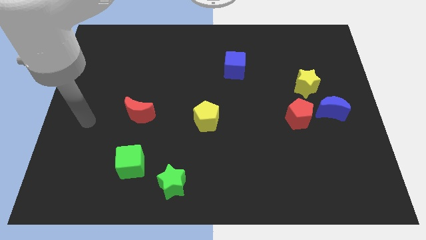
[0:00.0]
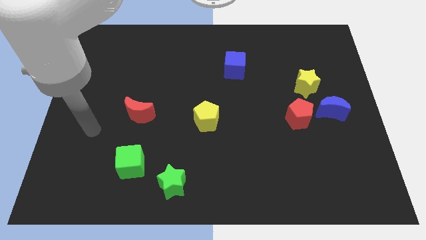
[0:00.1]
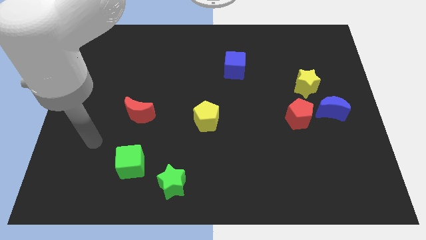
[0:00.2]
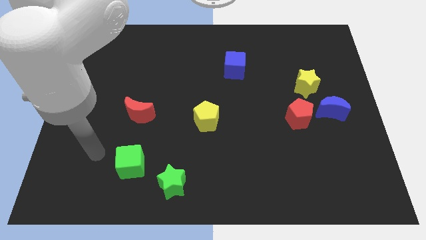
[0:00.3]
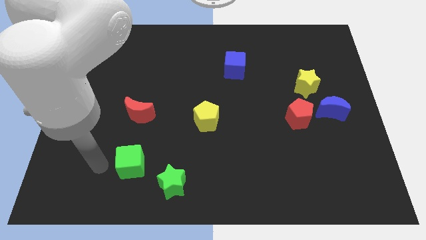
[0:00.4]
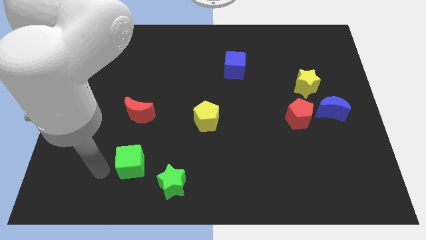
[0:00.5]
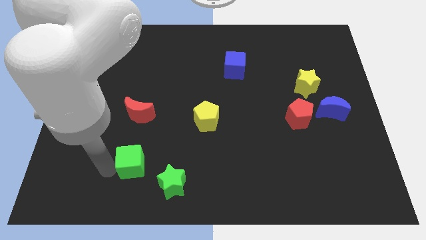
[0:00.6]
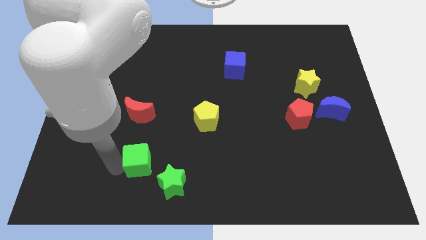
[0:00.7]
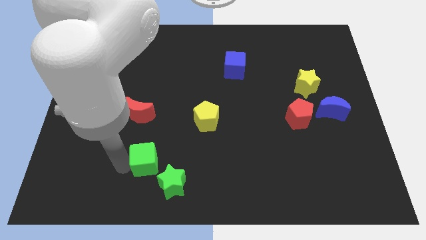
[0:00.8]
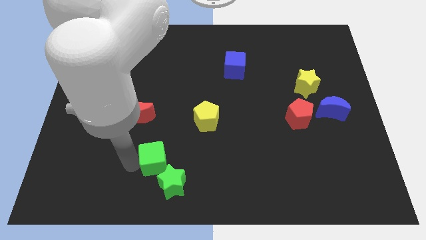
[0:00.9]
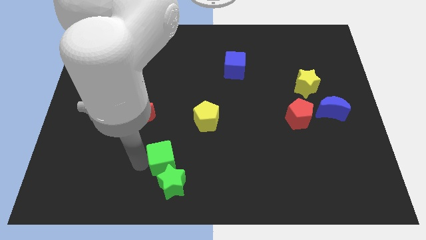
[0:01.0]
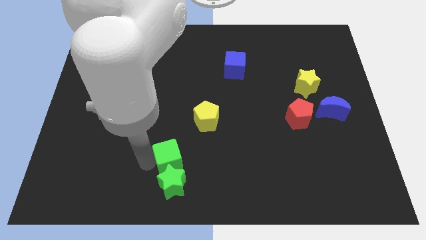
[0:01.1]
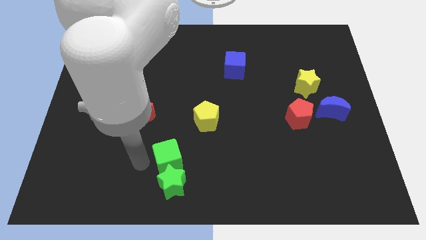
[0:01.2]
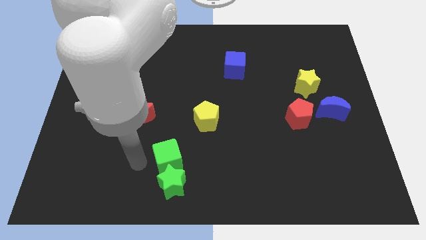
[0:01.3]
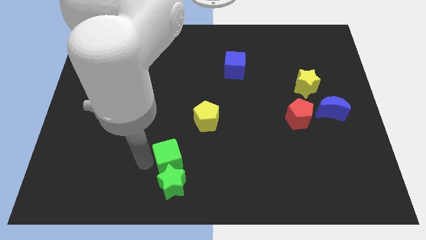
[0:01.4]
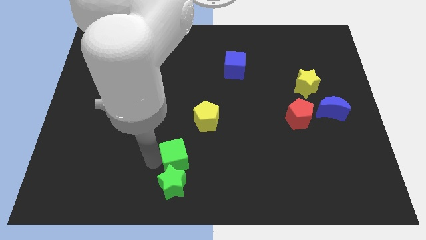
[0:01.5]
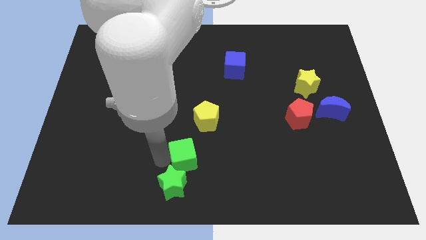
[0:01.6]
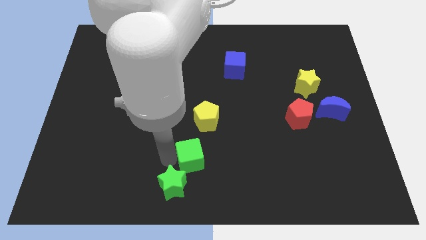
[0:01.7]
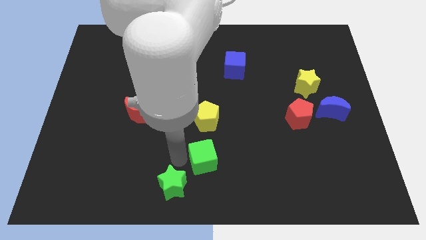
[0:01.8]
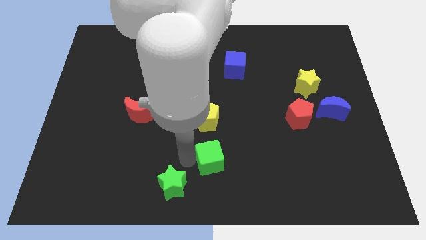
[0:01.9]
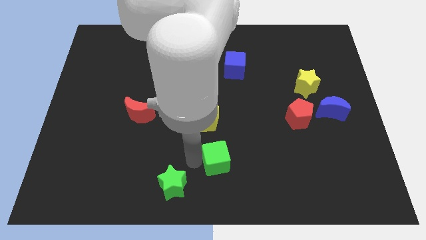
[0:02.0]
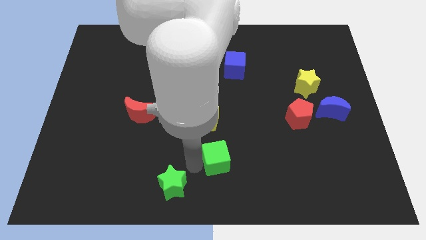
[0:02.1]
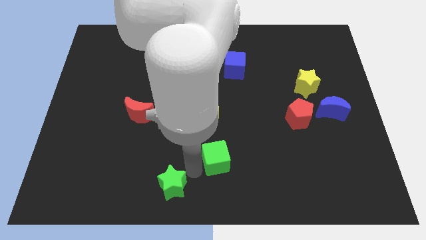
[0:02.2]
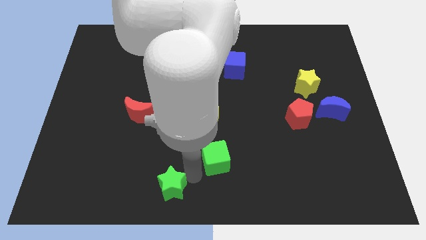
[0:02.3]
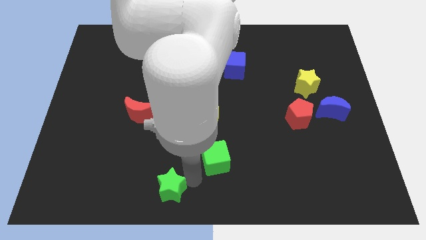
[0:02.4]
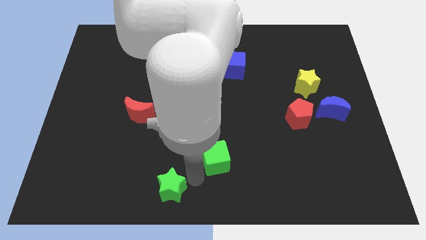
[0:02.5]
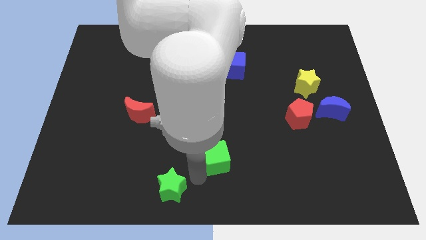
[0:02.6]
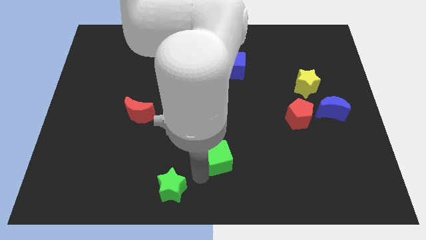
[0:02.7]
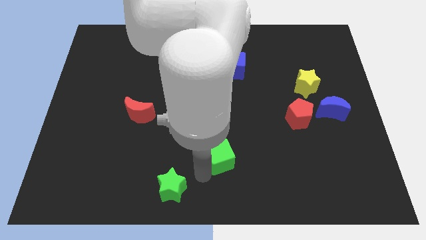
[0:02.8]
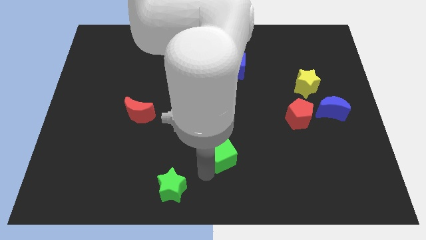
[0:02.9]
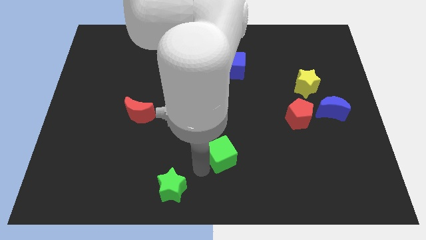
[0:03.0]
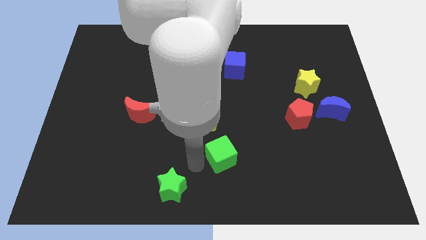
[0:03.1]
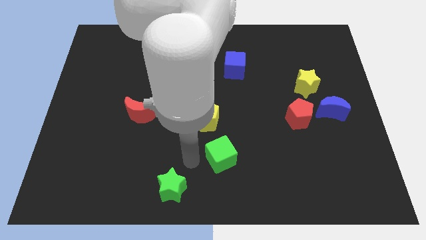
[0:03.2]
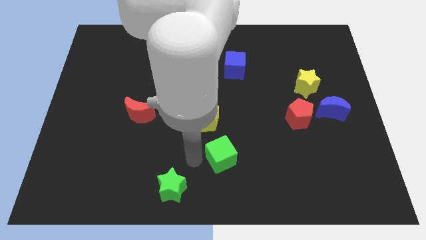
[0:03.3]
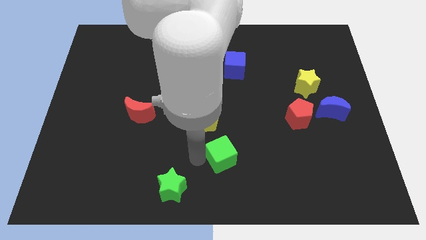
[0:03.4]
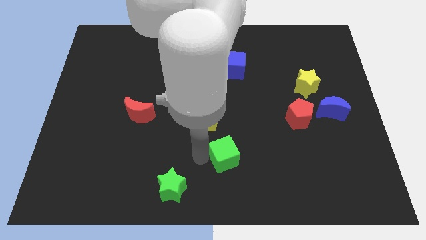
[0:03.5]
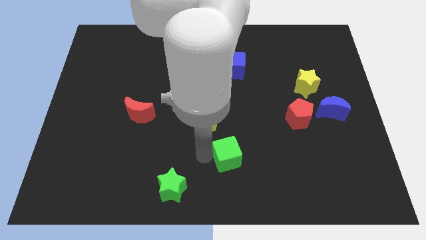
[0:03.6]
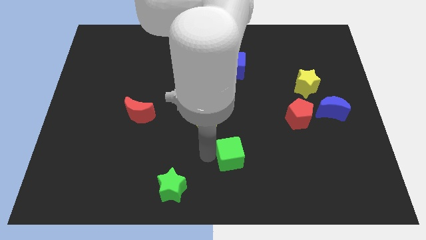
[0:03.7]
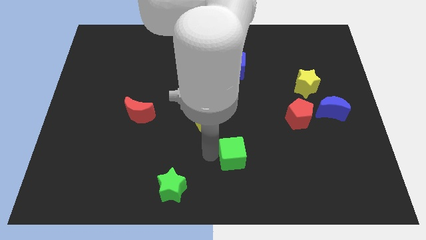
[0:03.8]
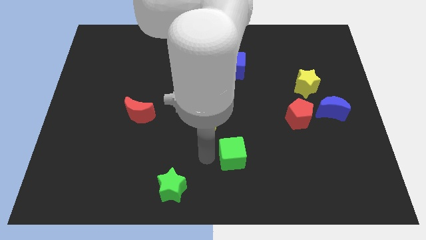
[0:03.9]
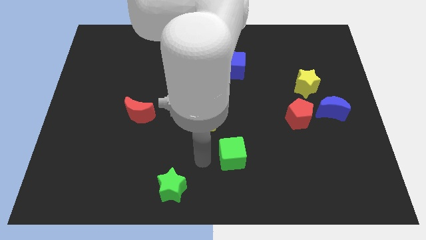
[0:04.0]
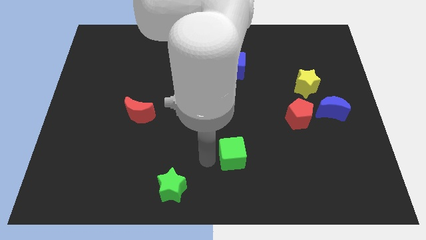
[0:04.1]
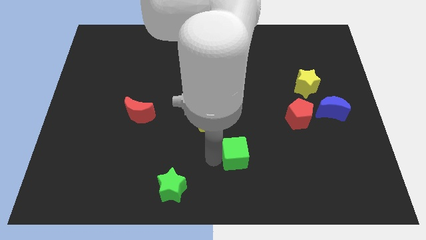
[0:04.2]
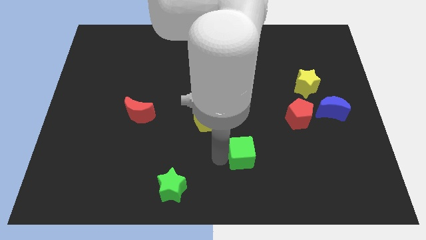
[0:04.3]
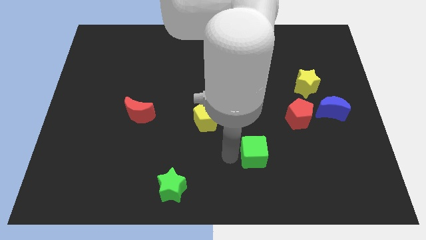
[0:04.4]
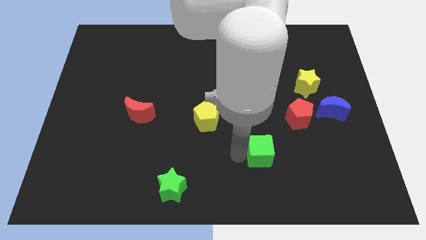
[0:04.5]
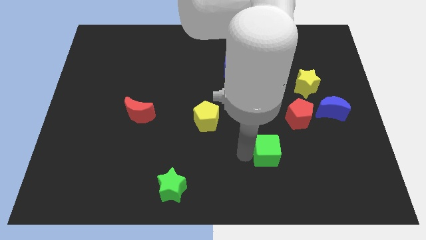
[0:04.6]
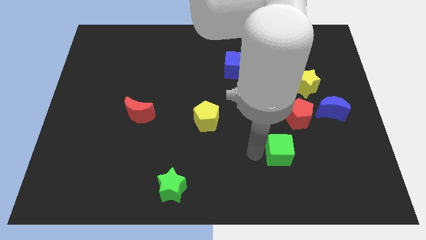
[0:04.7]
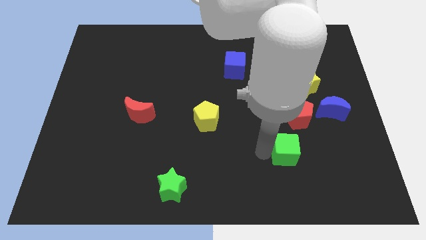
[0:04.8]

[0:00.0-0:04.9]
move the green cube to the bottom of the red pentagon

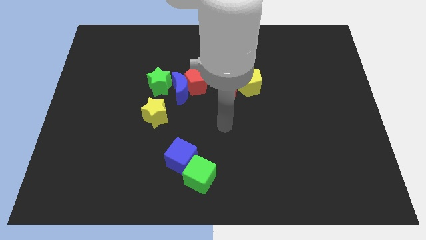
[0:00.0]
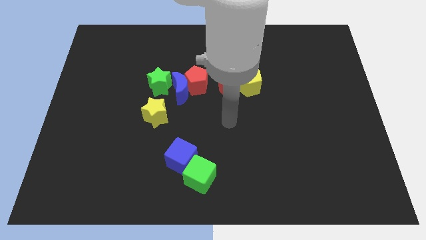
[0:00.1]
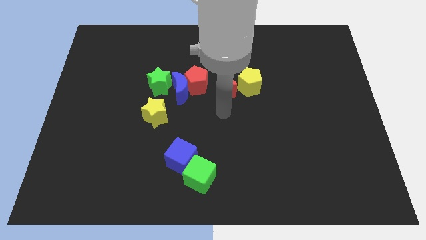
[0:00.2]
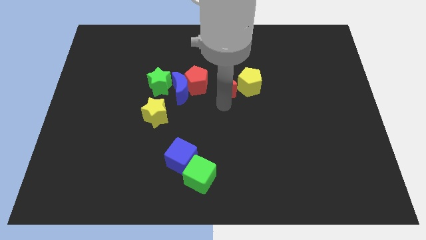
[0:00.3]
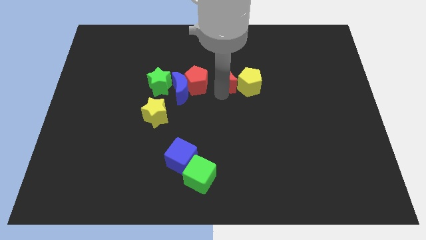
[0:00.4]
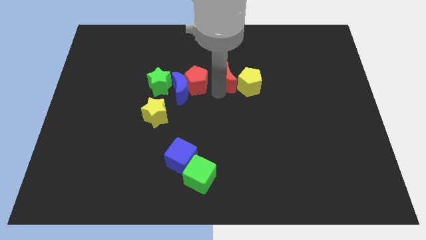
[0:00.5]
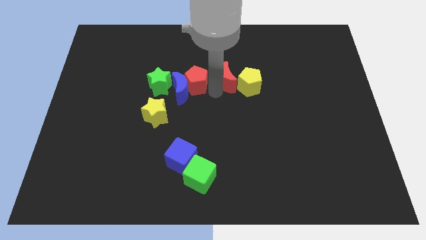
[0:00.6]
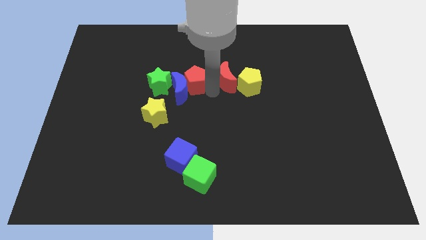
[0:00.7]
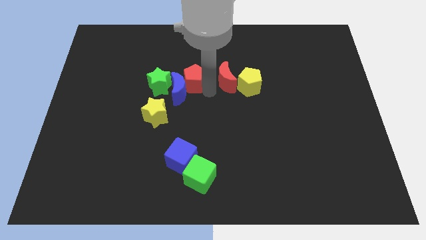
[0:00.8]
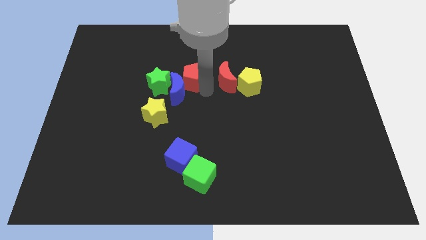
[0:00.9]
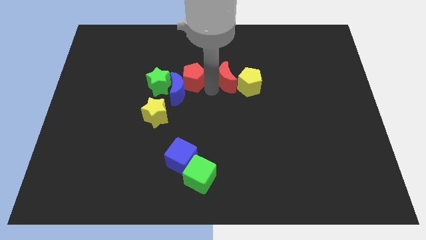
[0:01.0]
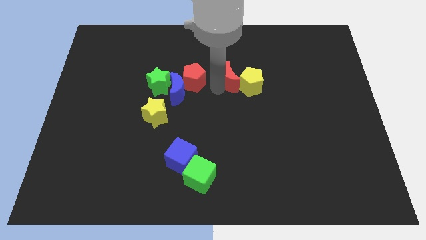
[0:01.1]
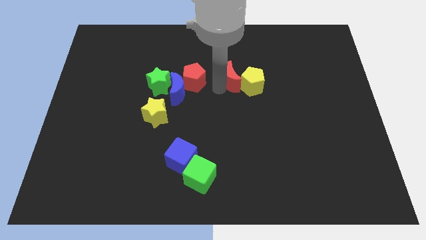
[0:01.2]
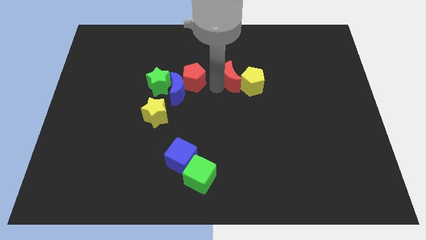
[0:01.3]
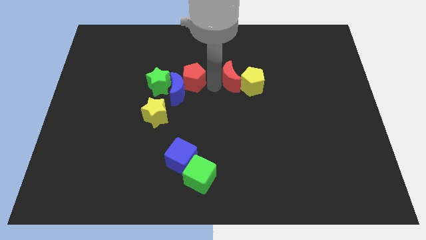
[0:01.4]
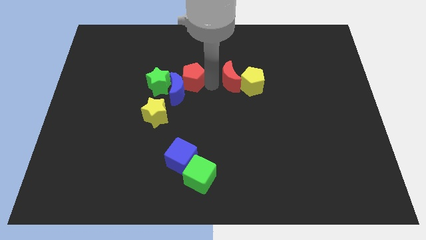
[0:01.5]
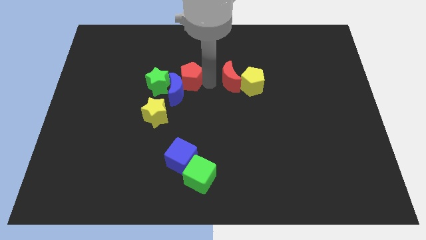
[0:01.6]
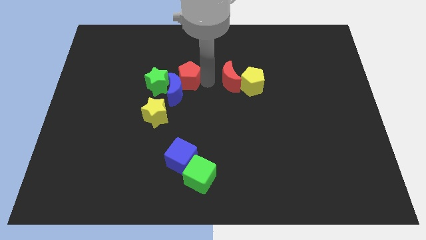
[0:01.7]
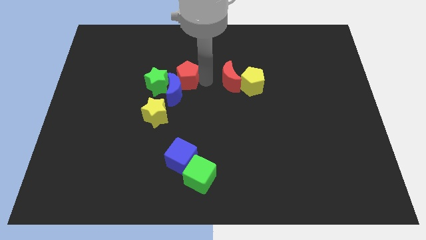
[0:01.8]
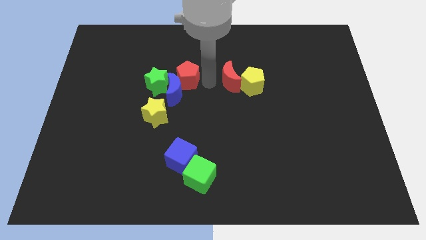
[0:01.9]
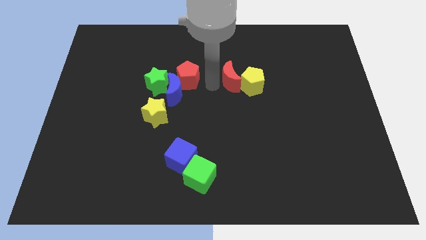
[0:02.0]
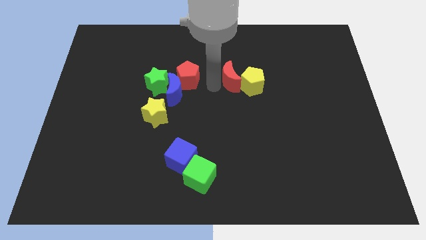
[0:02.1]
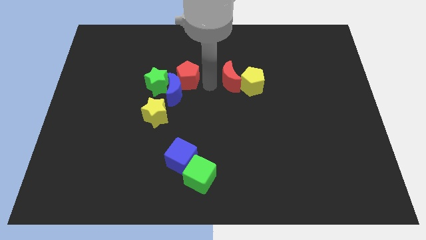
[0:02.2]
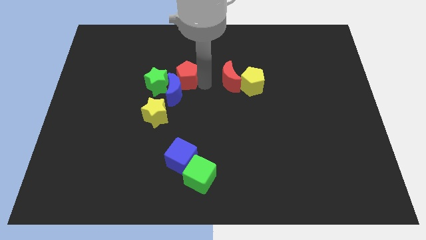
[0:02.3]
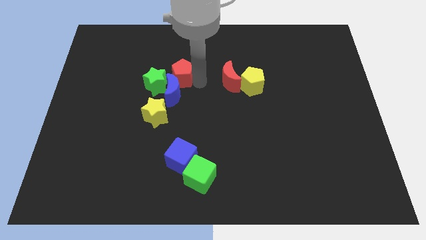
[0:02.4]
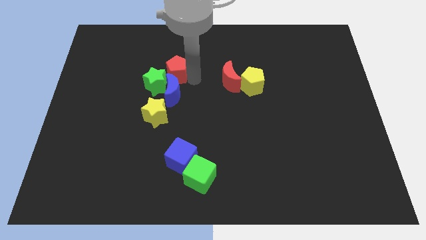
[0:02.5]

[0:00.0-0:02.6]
move the red pentagon to the top side of the yellow star
